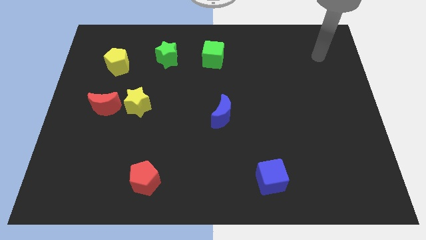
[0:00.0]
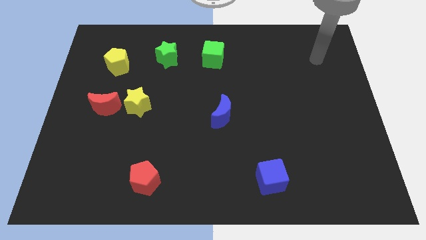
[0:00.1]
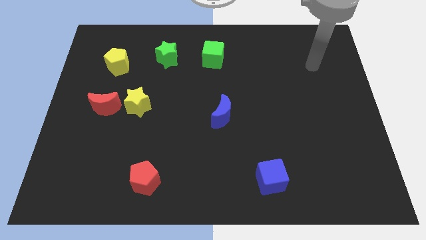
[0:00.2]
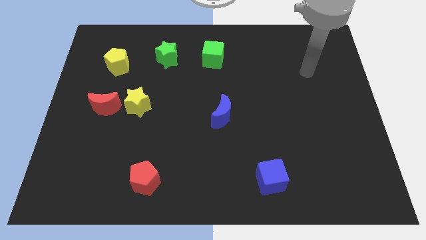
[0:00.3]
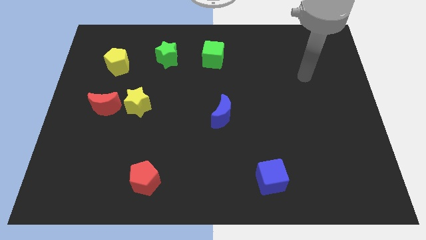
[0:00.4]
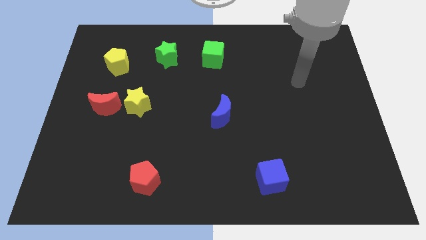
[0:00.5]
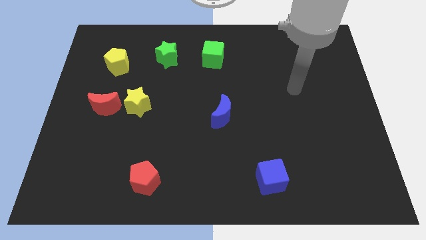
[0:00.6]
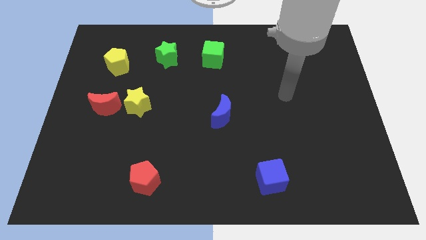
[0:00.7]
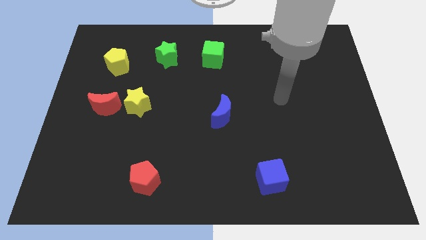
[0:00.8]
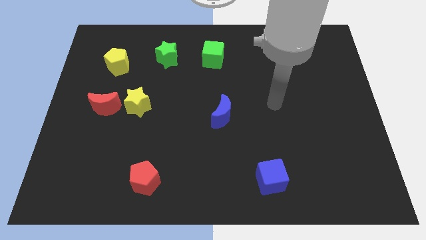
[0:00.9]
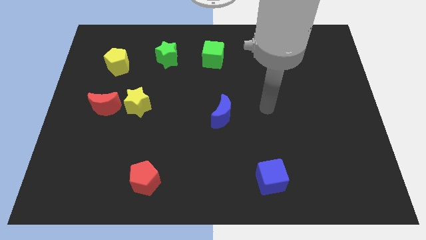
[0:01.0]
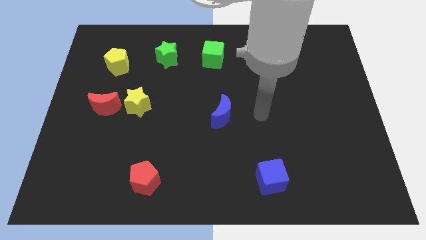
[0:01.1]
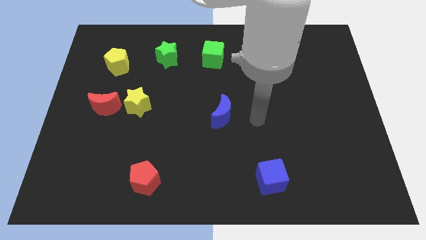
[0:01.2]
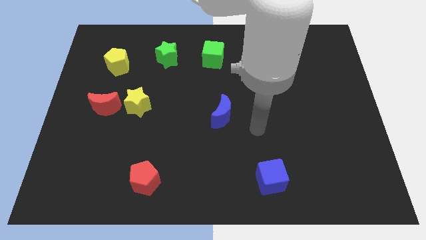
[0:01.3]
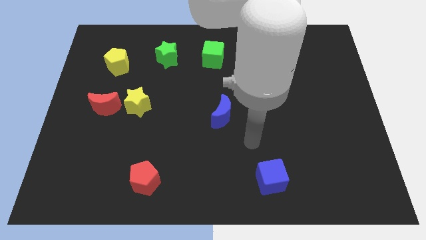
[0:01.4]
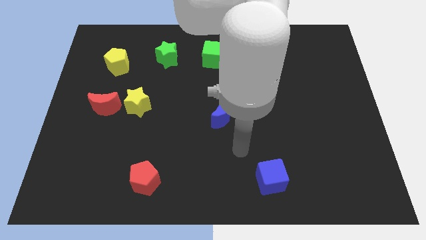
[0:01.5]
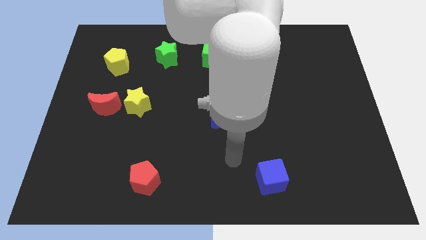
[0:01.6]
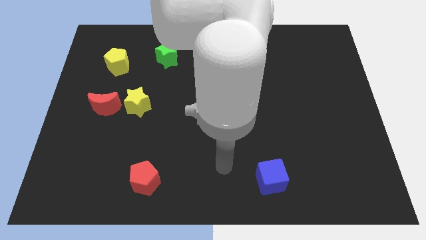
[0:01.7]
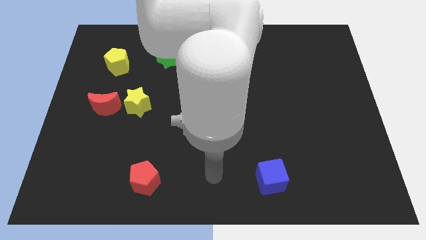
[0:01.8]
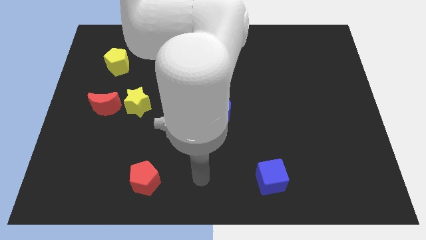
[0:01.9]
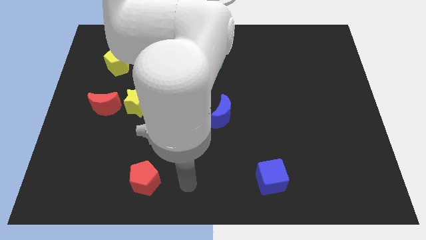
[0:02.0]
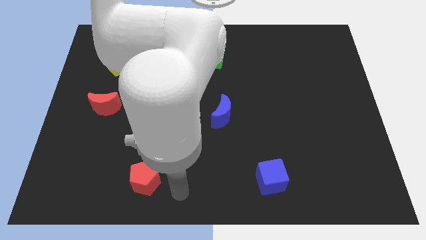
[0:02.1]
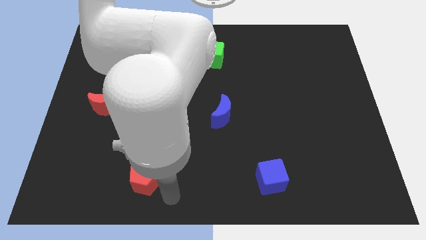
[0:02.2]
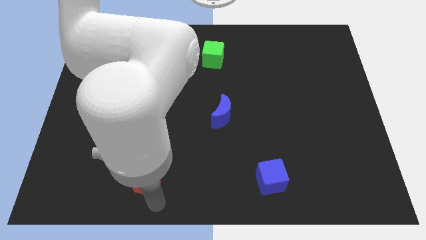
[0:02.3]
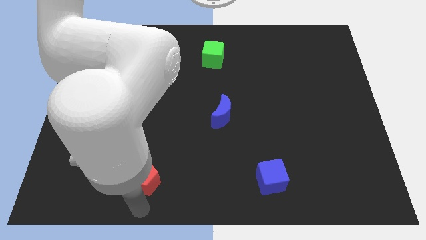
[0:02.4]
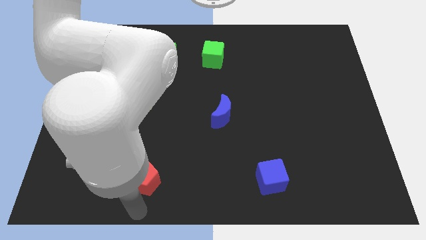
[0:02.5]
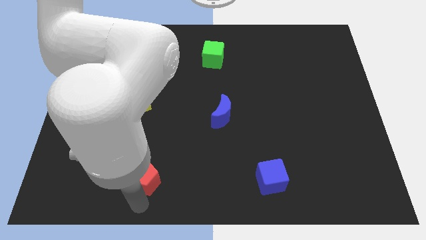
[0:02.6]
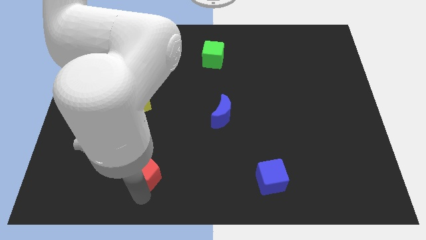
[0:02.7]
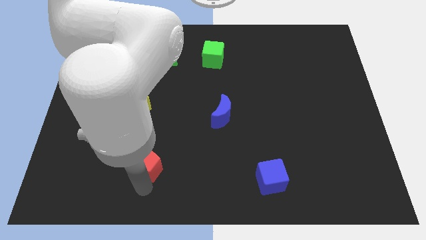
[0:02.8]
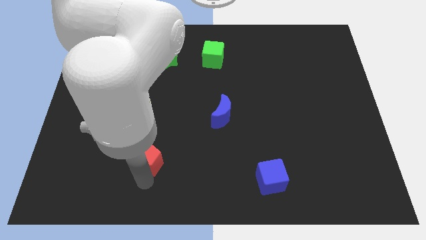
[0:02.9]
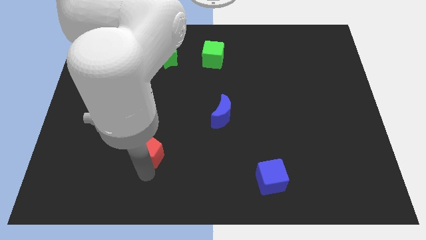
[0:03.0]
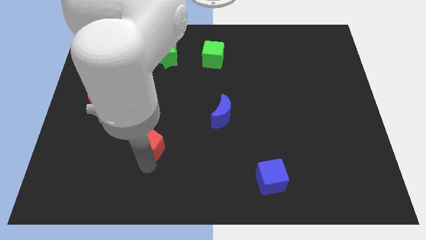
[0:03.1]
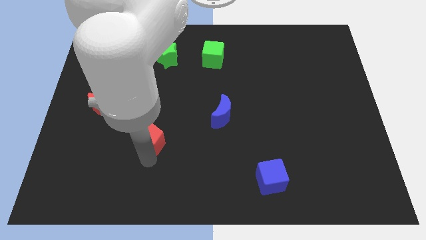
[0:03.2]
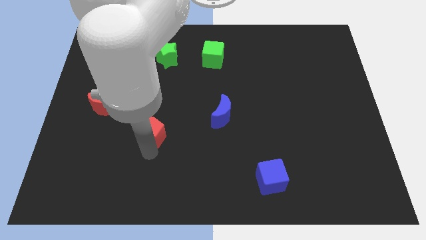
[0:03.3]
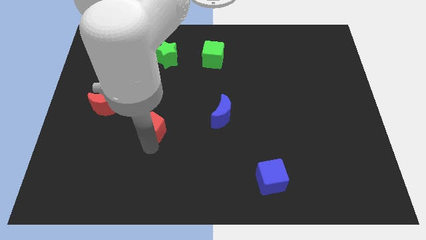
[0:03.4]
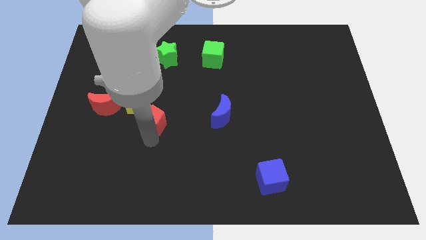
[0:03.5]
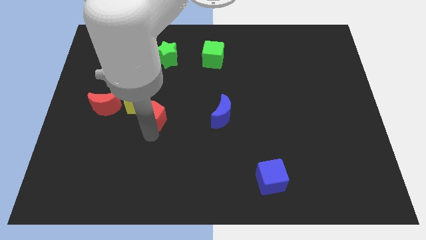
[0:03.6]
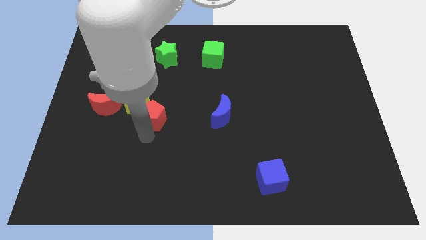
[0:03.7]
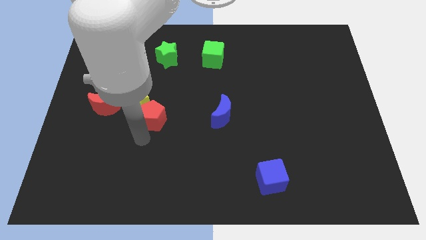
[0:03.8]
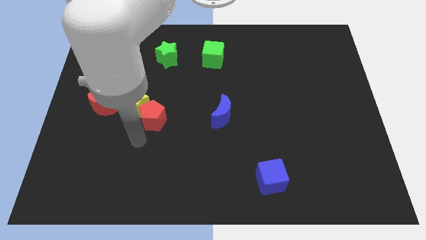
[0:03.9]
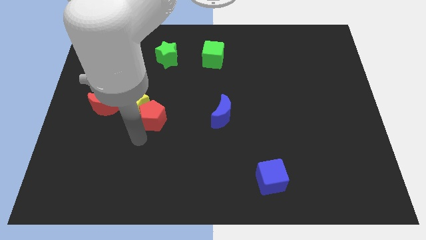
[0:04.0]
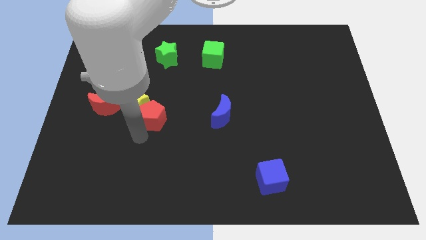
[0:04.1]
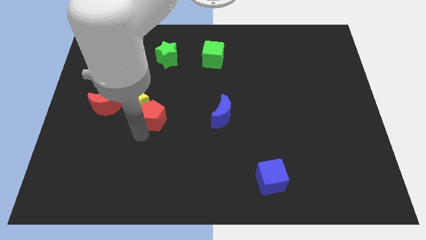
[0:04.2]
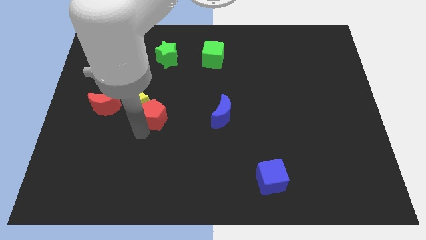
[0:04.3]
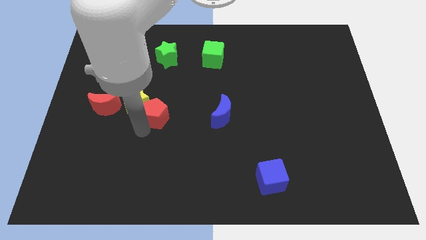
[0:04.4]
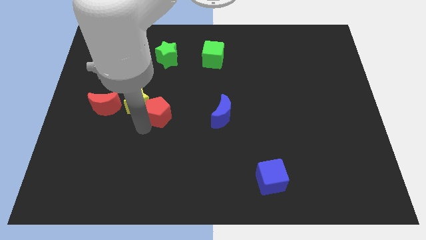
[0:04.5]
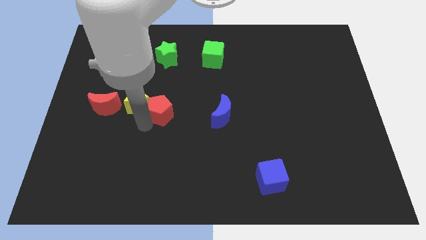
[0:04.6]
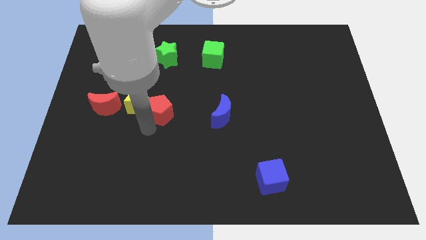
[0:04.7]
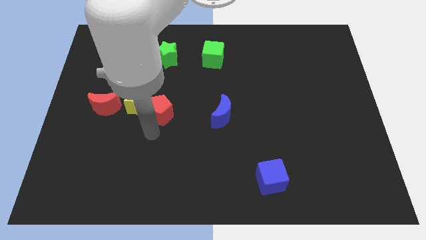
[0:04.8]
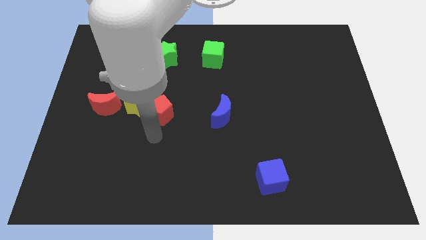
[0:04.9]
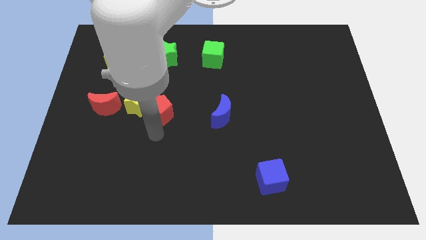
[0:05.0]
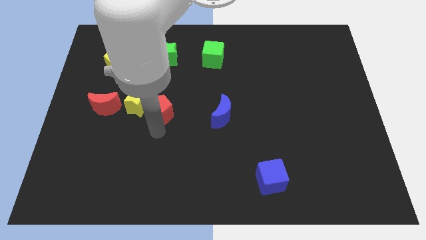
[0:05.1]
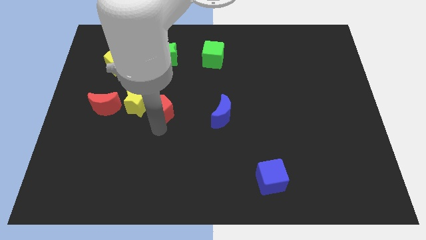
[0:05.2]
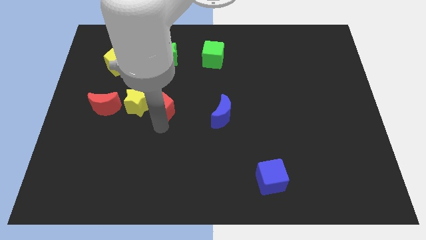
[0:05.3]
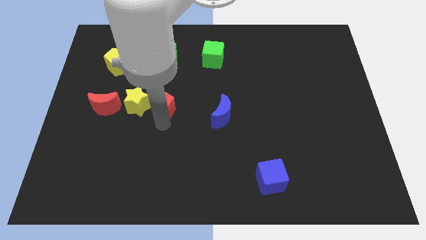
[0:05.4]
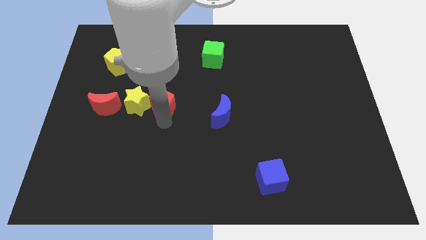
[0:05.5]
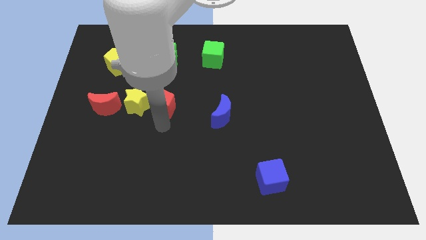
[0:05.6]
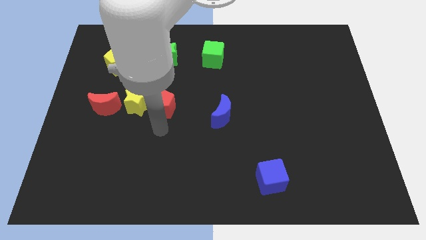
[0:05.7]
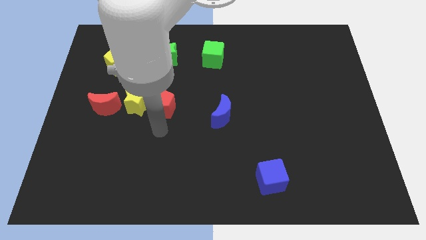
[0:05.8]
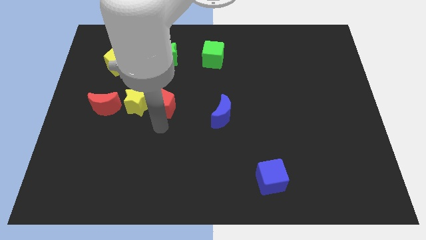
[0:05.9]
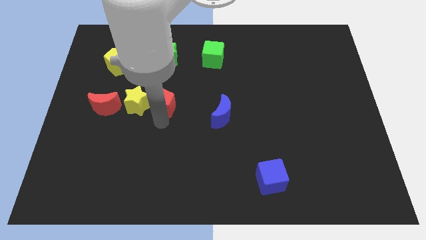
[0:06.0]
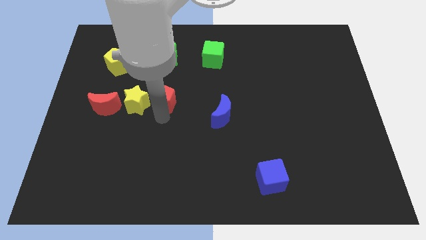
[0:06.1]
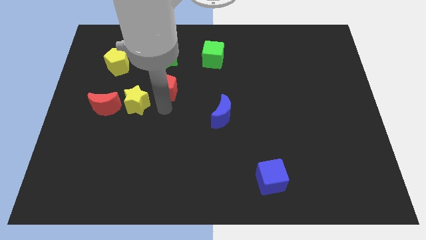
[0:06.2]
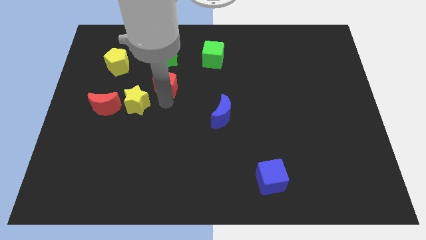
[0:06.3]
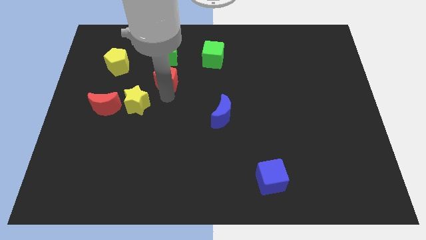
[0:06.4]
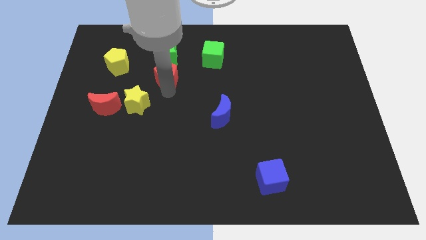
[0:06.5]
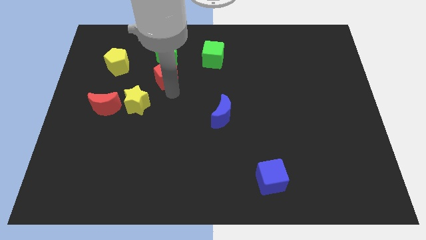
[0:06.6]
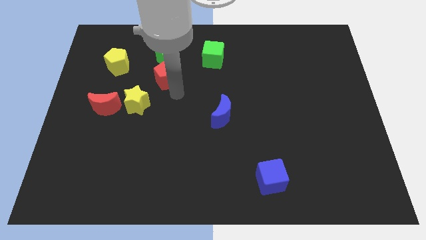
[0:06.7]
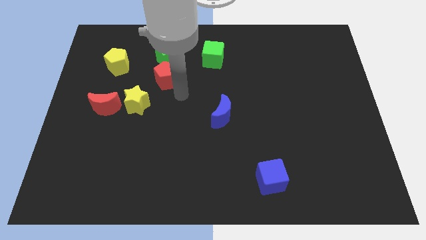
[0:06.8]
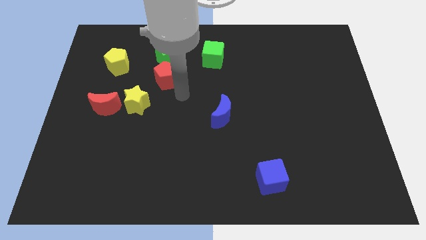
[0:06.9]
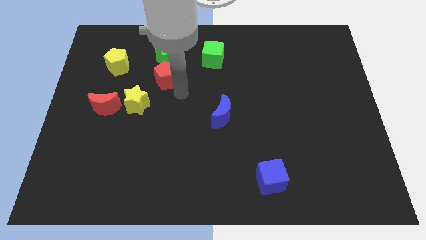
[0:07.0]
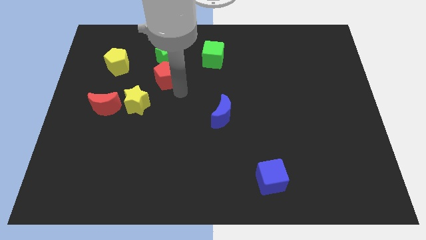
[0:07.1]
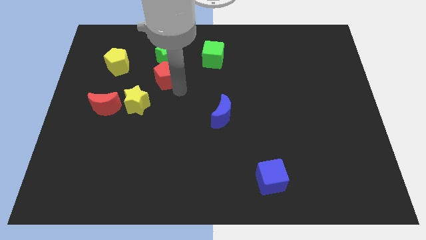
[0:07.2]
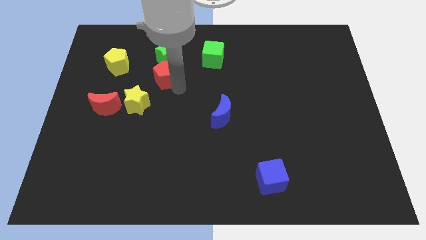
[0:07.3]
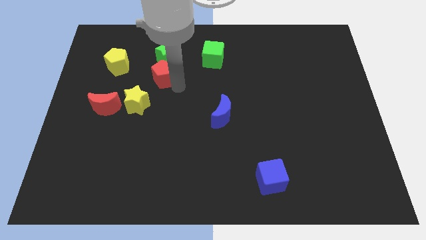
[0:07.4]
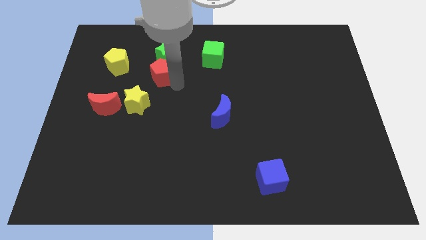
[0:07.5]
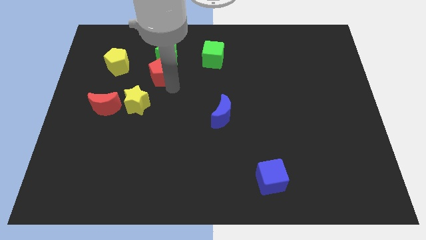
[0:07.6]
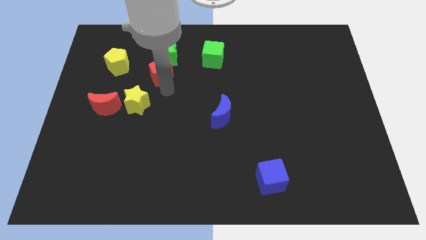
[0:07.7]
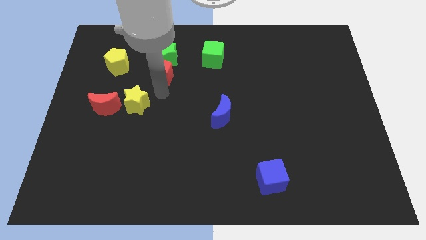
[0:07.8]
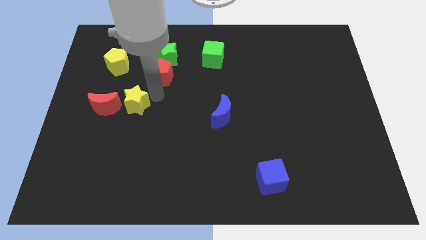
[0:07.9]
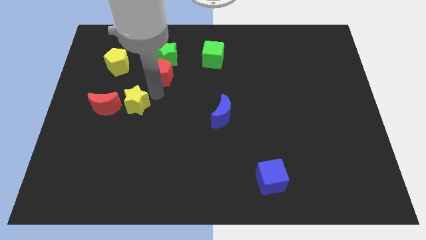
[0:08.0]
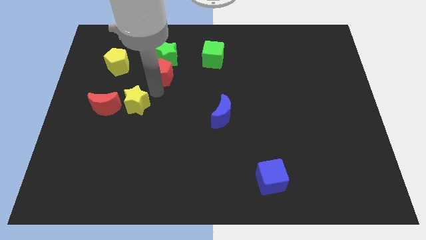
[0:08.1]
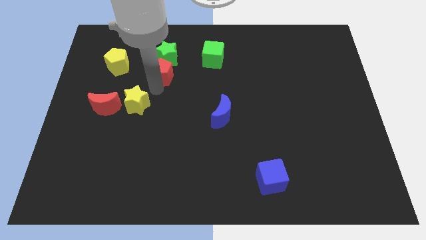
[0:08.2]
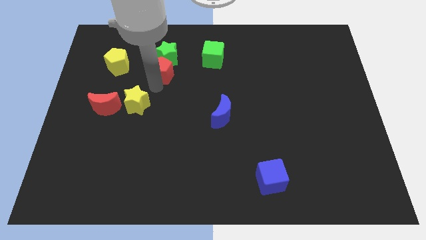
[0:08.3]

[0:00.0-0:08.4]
slide the red pentagon towards the green star
